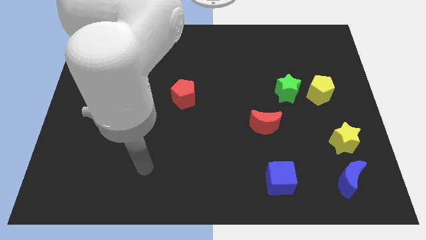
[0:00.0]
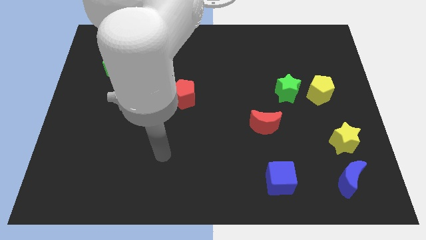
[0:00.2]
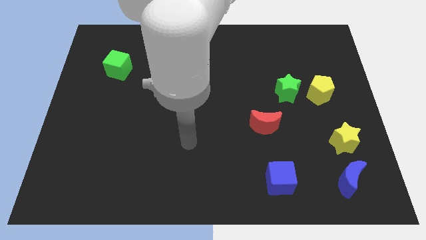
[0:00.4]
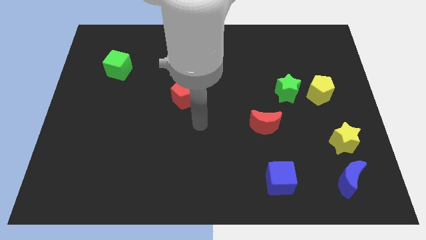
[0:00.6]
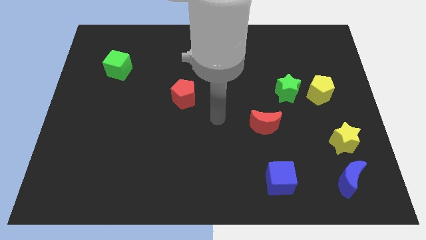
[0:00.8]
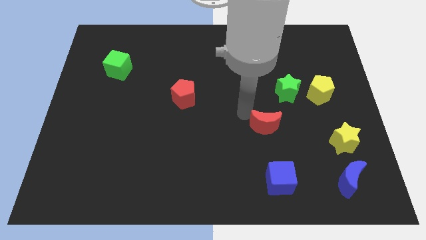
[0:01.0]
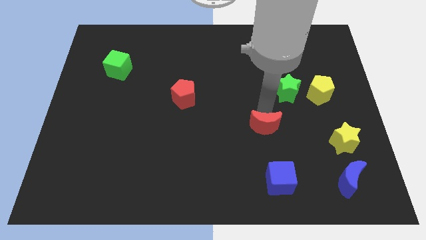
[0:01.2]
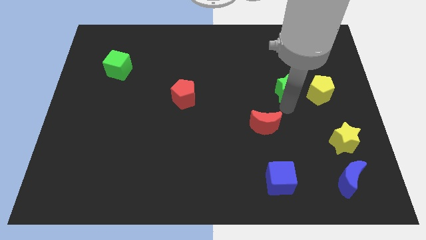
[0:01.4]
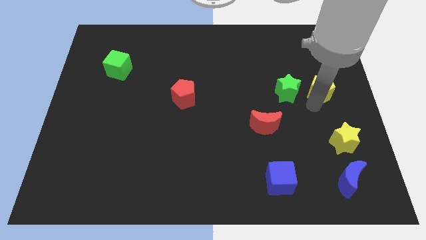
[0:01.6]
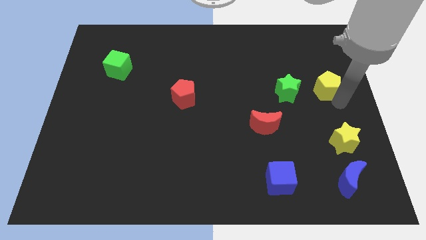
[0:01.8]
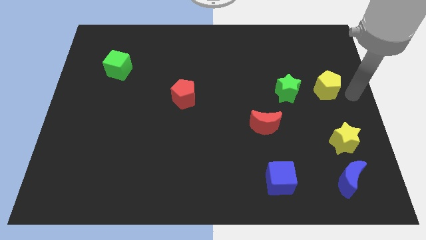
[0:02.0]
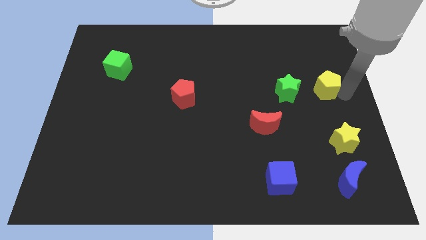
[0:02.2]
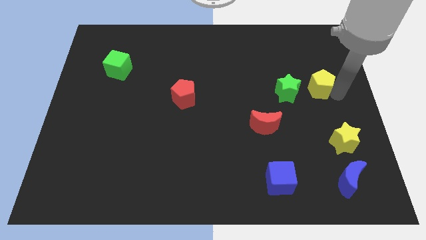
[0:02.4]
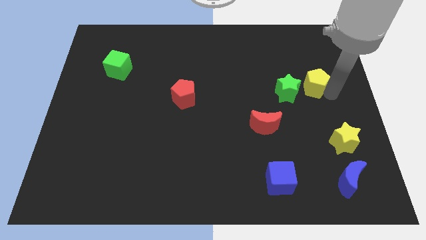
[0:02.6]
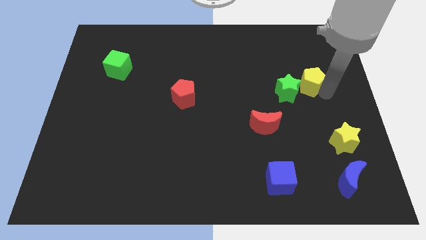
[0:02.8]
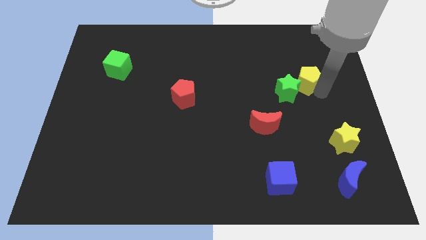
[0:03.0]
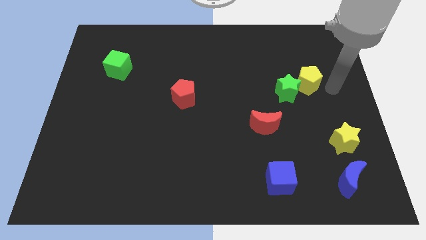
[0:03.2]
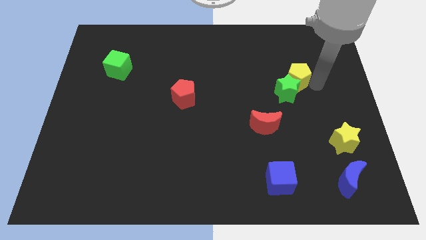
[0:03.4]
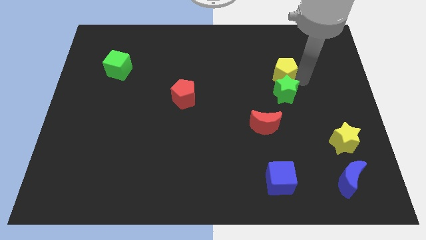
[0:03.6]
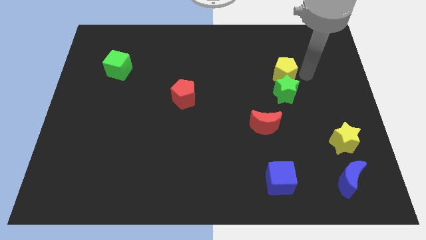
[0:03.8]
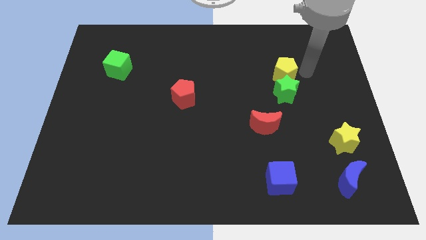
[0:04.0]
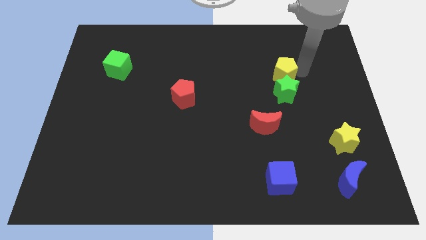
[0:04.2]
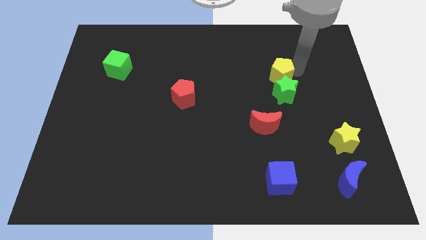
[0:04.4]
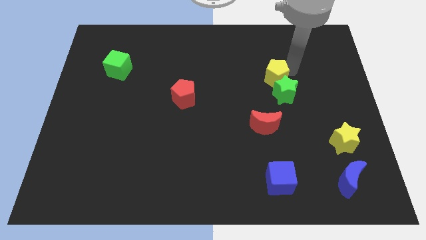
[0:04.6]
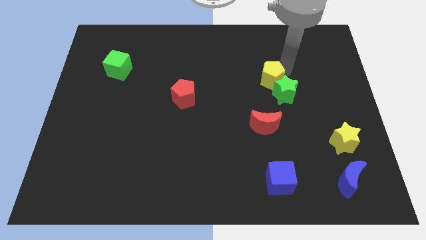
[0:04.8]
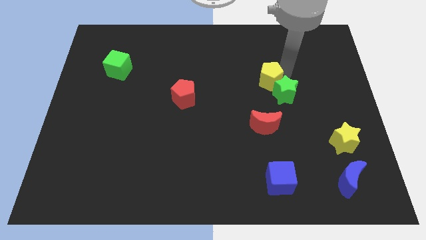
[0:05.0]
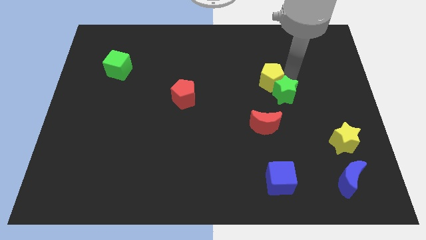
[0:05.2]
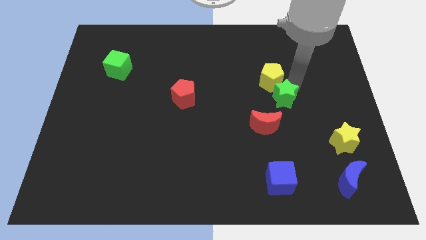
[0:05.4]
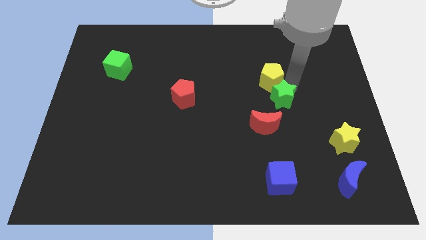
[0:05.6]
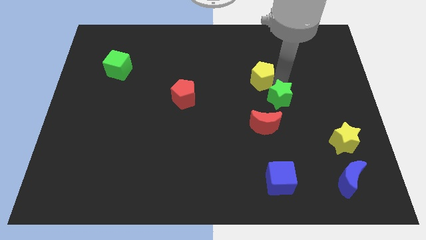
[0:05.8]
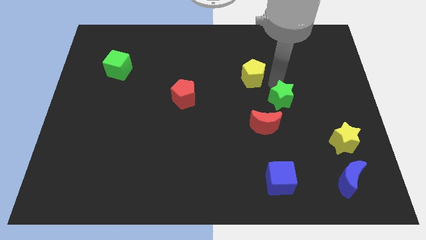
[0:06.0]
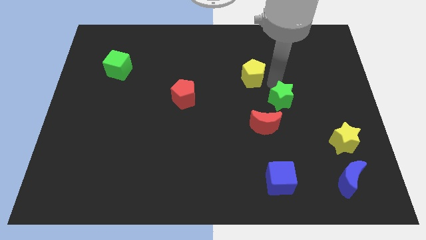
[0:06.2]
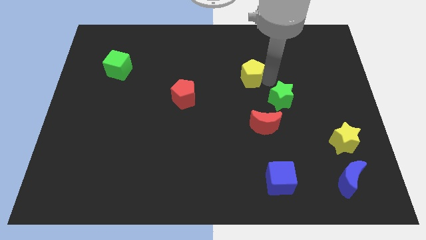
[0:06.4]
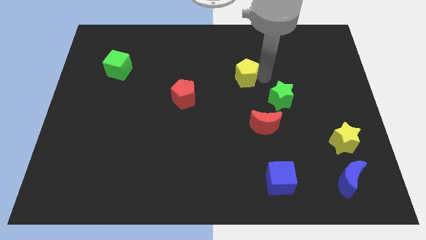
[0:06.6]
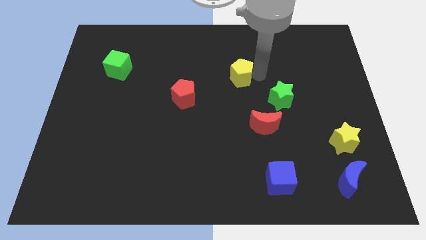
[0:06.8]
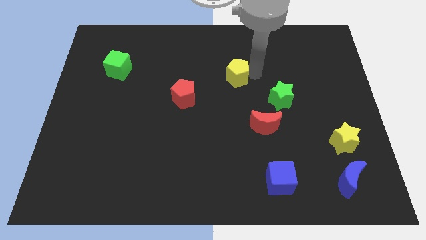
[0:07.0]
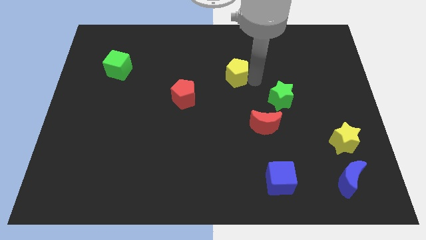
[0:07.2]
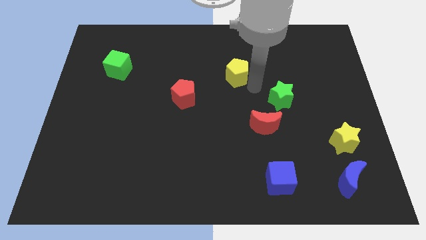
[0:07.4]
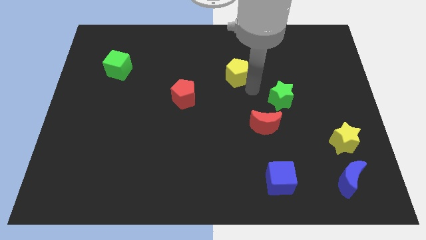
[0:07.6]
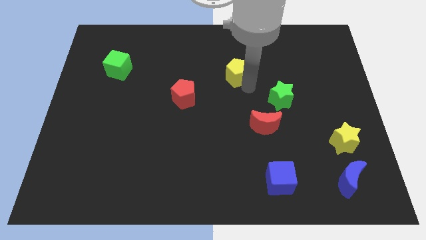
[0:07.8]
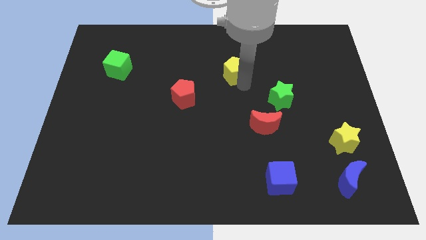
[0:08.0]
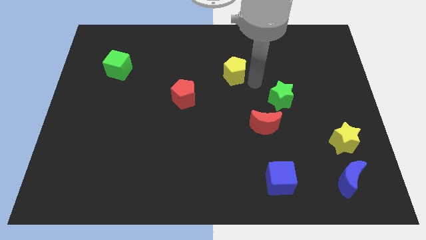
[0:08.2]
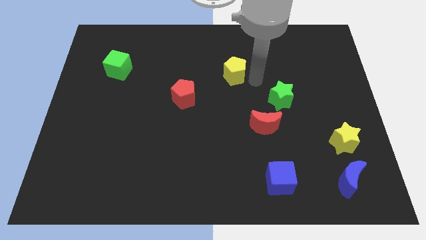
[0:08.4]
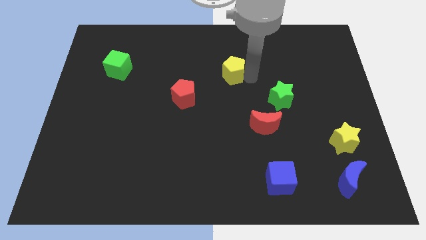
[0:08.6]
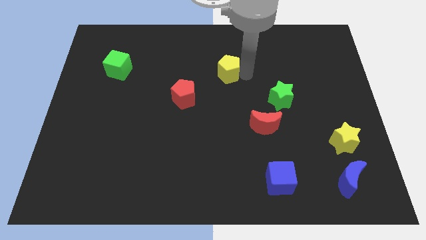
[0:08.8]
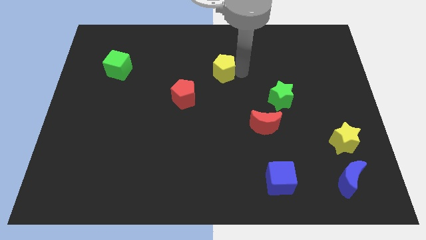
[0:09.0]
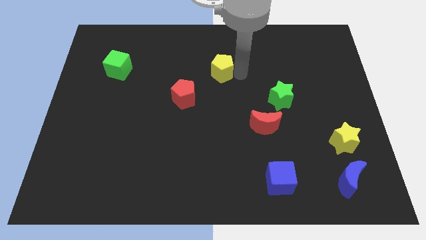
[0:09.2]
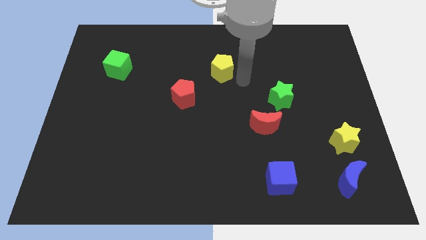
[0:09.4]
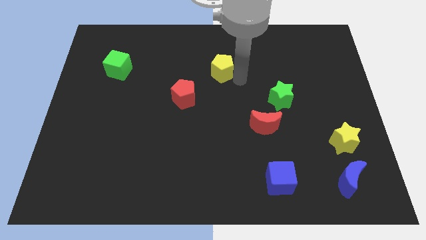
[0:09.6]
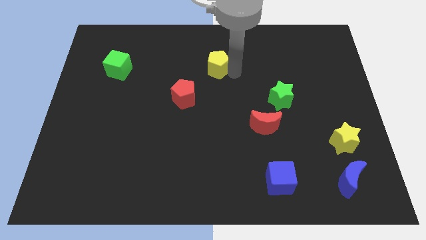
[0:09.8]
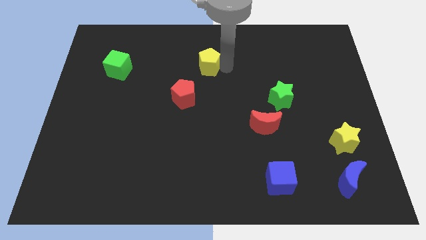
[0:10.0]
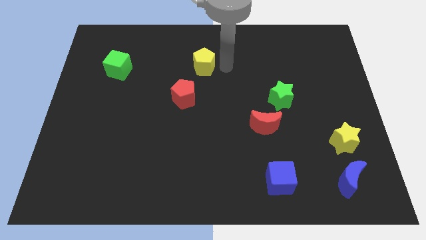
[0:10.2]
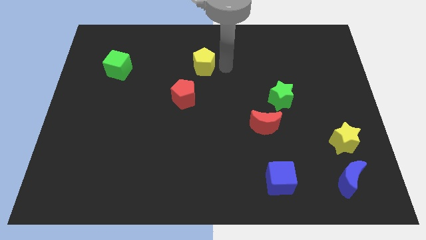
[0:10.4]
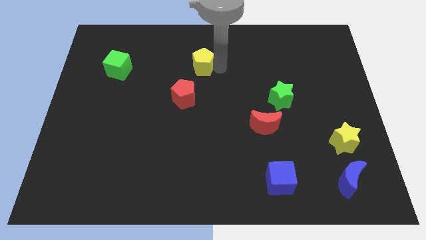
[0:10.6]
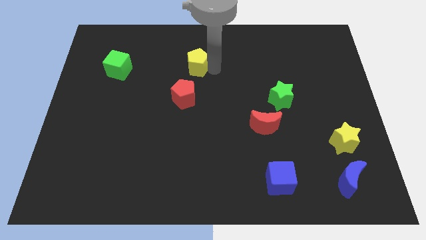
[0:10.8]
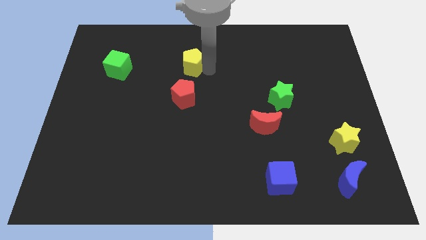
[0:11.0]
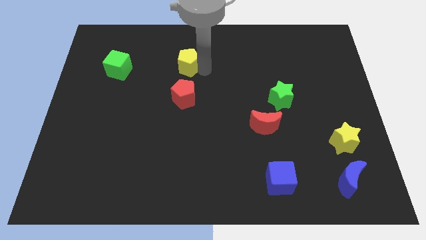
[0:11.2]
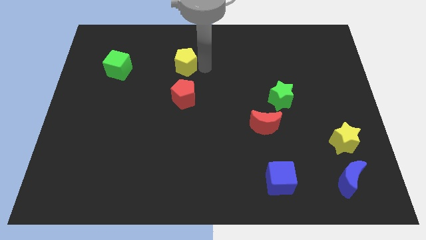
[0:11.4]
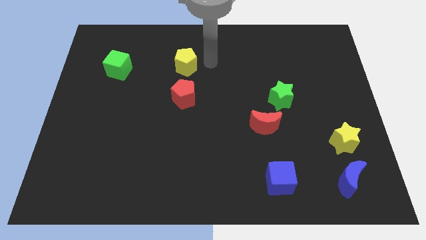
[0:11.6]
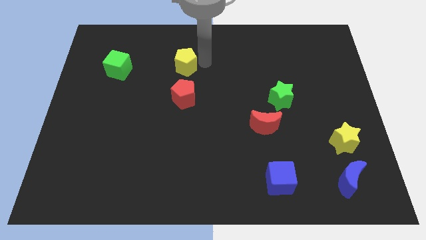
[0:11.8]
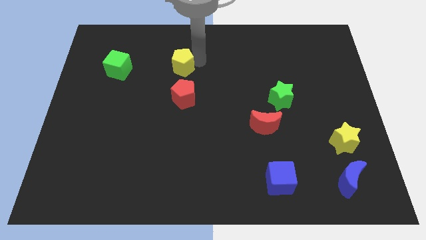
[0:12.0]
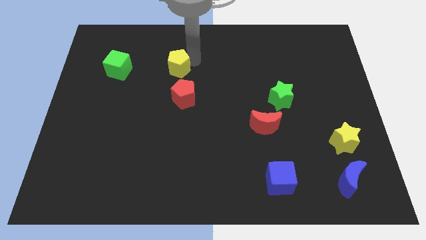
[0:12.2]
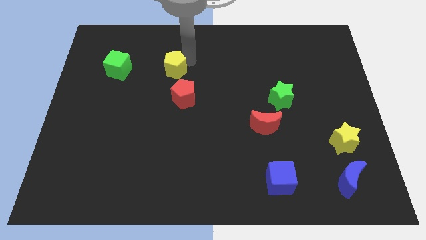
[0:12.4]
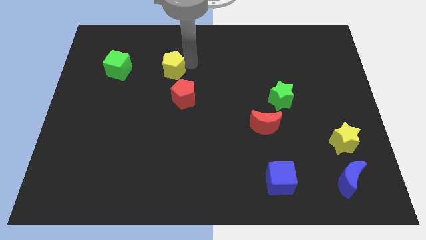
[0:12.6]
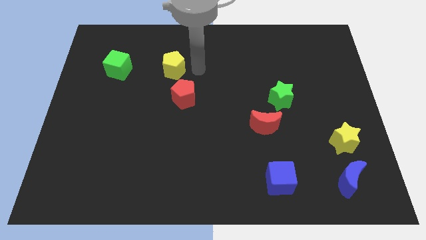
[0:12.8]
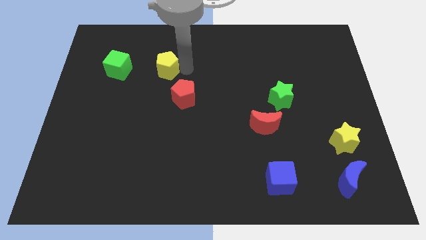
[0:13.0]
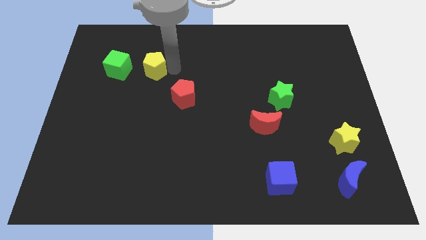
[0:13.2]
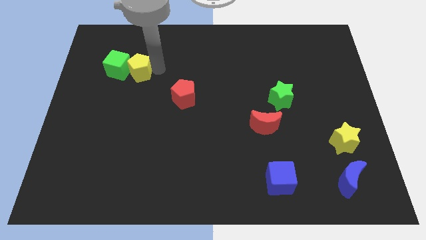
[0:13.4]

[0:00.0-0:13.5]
push the yellow pentagon close to the green cube
